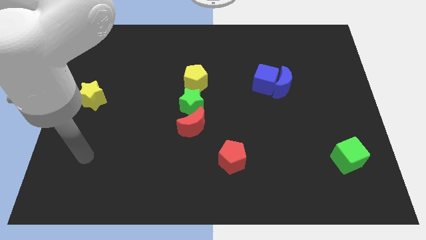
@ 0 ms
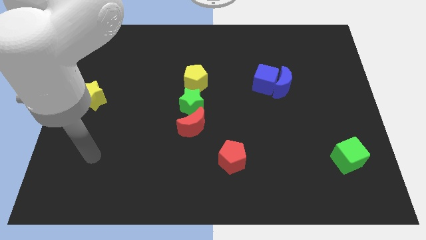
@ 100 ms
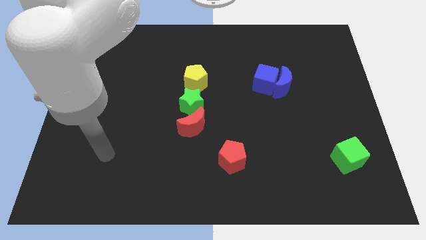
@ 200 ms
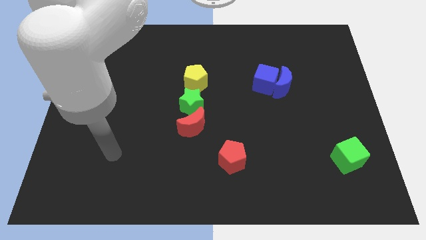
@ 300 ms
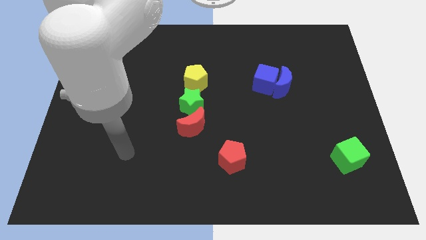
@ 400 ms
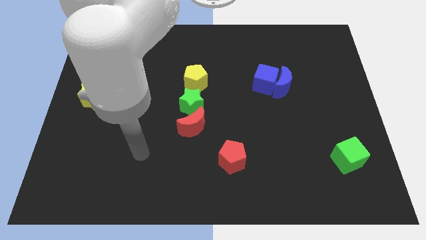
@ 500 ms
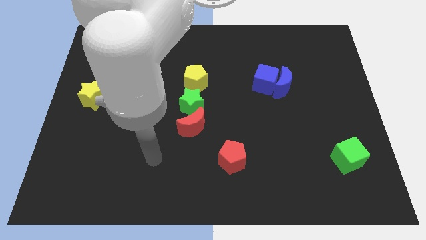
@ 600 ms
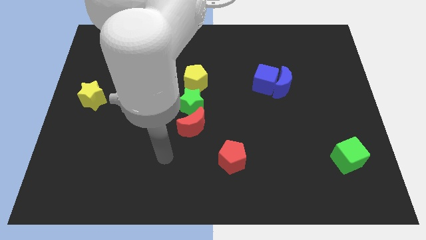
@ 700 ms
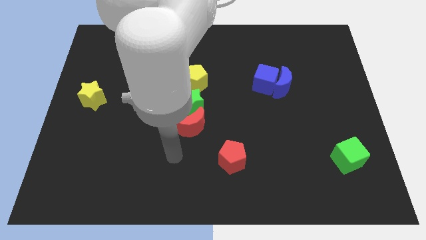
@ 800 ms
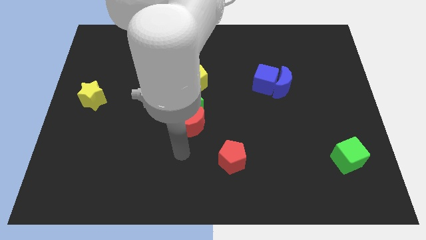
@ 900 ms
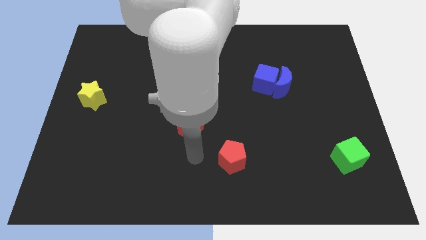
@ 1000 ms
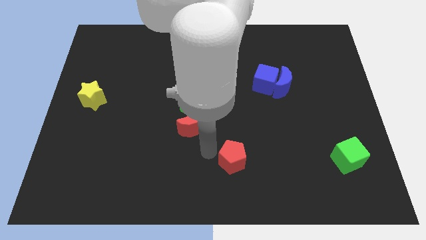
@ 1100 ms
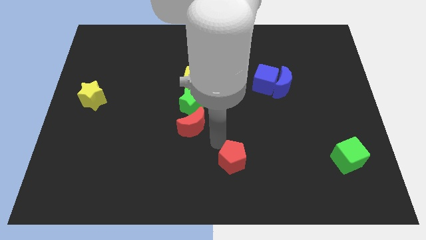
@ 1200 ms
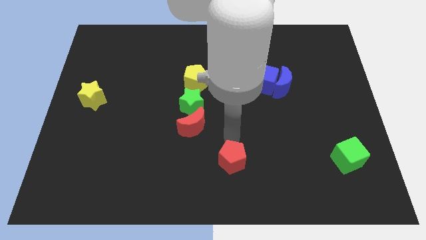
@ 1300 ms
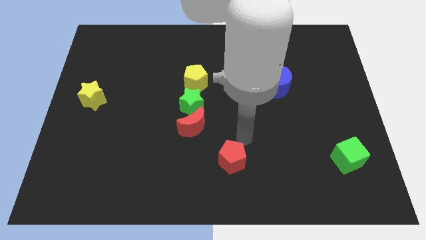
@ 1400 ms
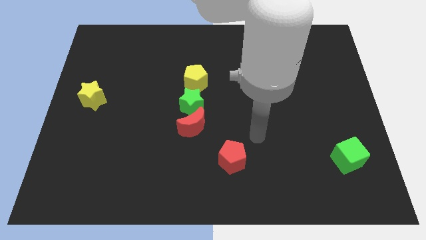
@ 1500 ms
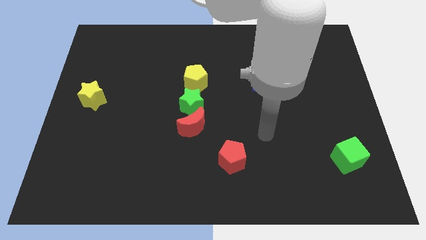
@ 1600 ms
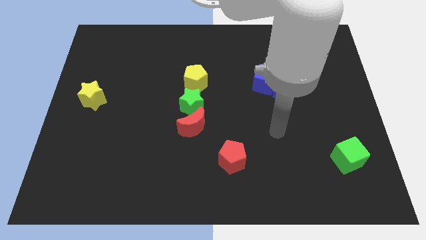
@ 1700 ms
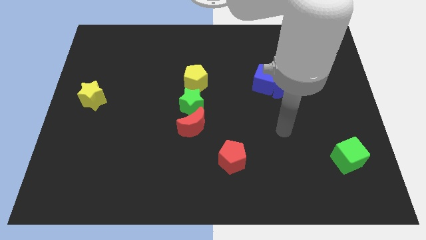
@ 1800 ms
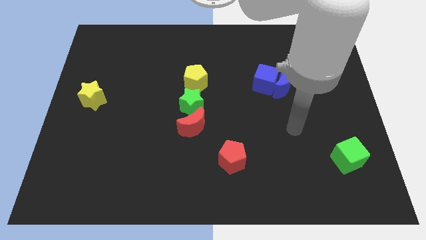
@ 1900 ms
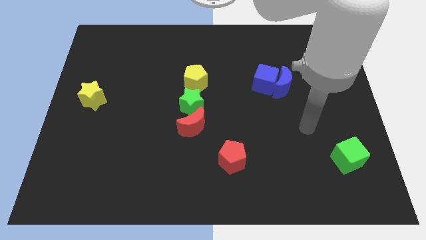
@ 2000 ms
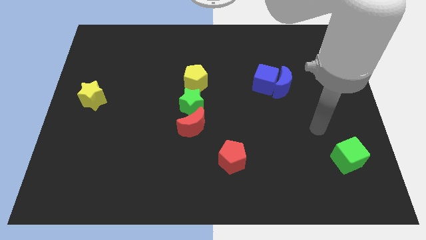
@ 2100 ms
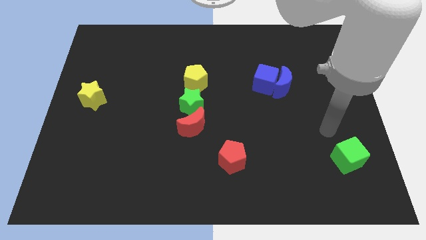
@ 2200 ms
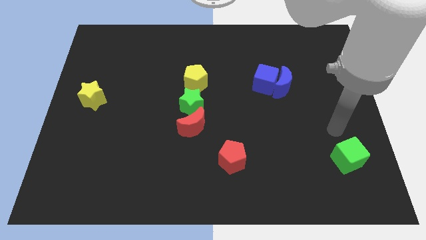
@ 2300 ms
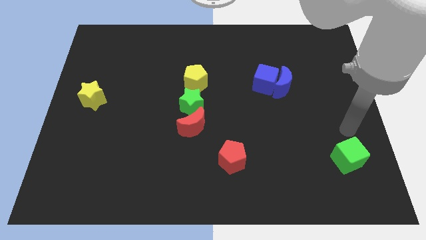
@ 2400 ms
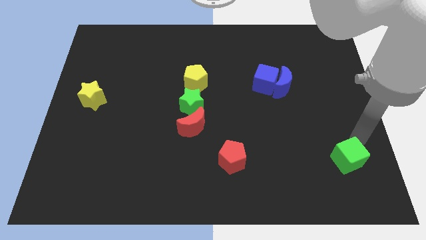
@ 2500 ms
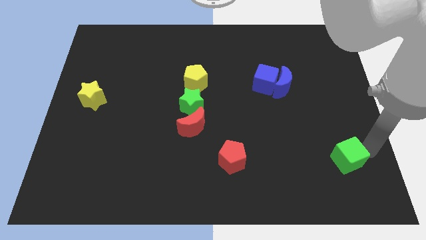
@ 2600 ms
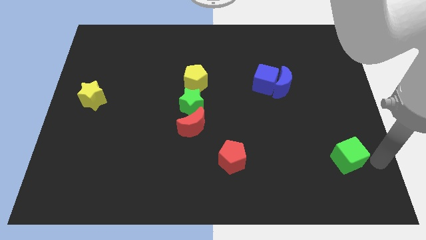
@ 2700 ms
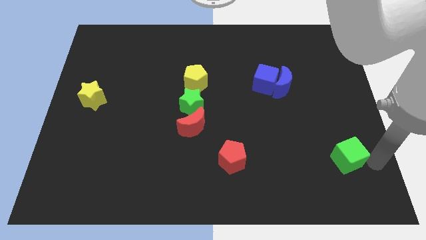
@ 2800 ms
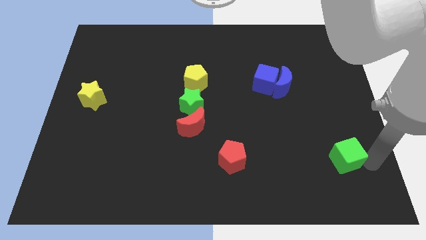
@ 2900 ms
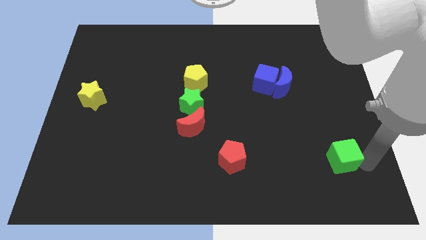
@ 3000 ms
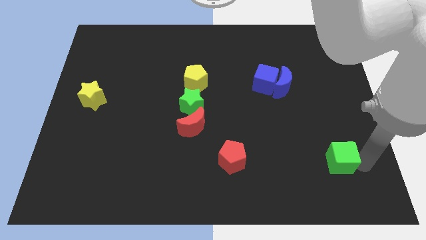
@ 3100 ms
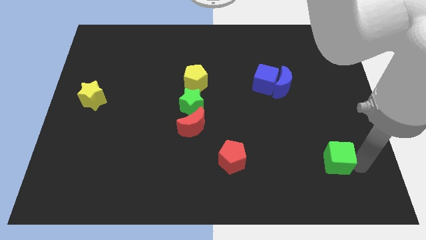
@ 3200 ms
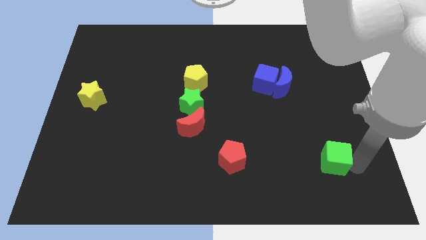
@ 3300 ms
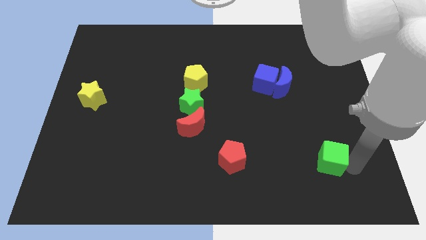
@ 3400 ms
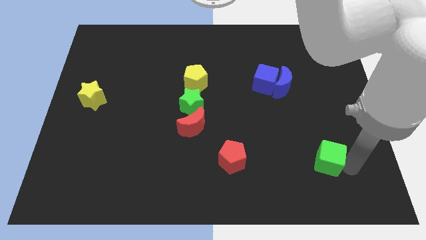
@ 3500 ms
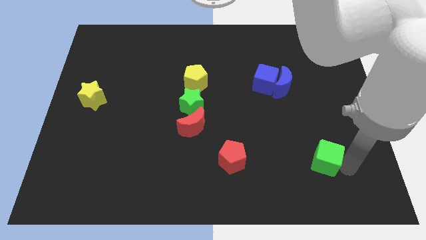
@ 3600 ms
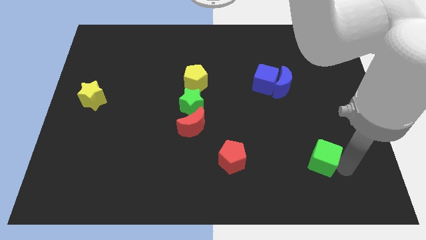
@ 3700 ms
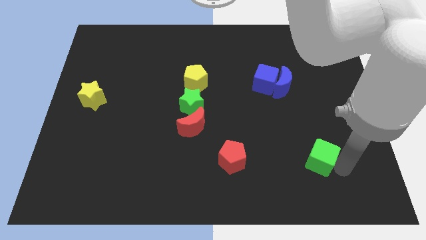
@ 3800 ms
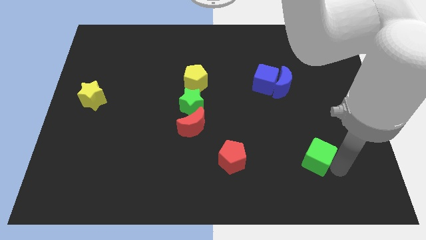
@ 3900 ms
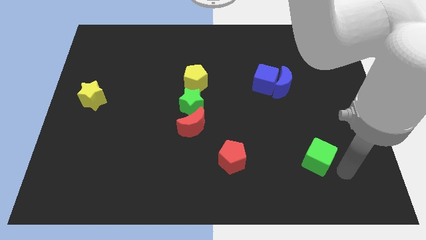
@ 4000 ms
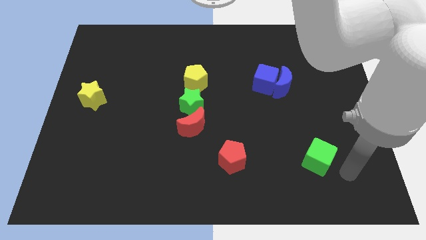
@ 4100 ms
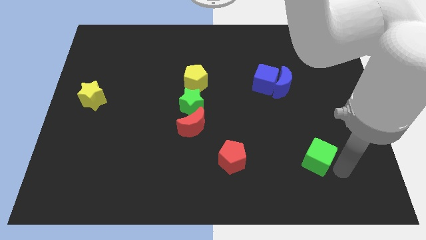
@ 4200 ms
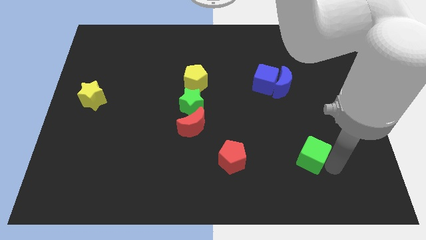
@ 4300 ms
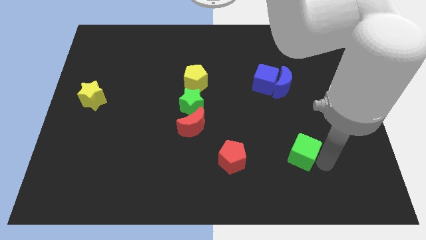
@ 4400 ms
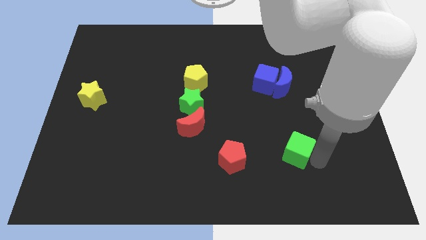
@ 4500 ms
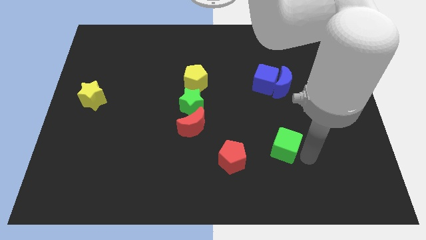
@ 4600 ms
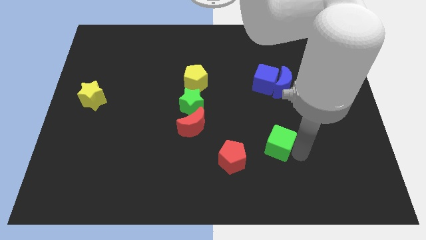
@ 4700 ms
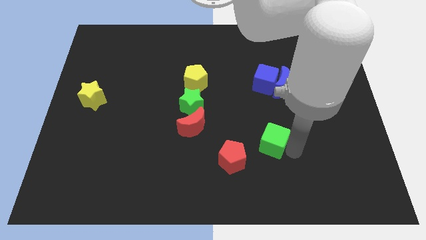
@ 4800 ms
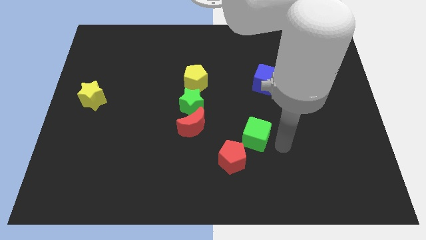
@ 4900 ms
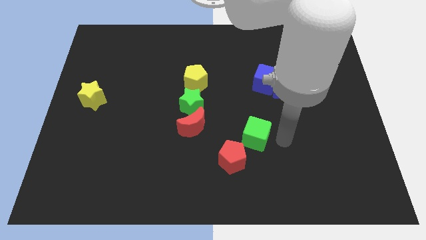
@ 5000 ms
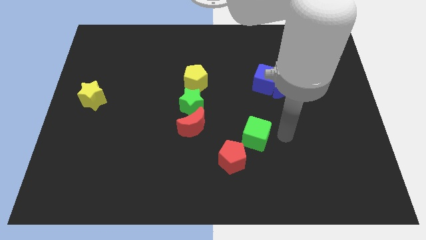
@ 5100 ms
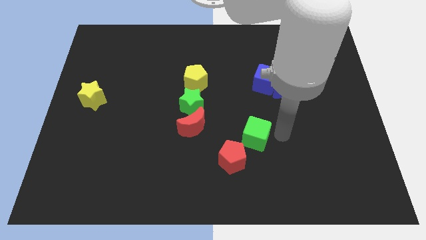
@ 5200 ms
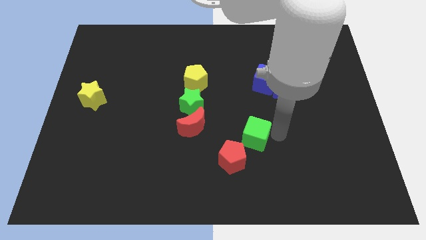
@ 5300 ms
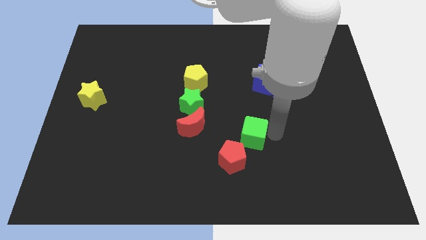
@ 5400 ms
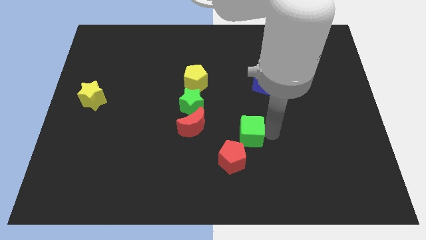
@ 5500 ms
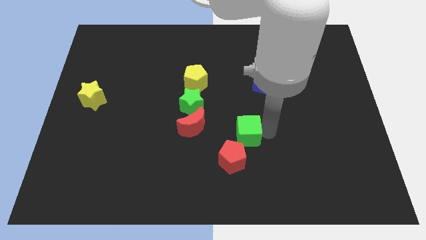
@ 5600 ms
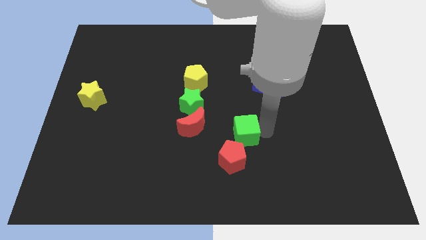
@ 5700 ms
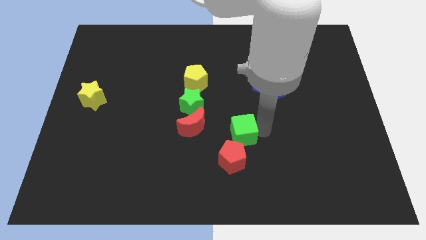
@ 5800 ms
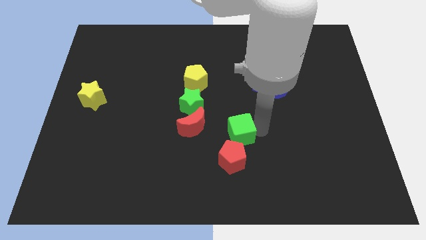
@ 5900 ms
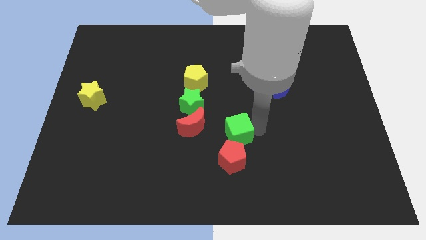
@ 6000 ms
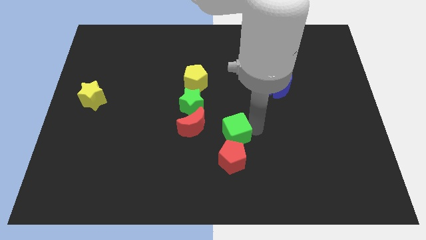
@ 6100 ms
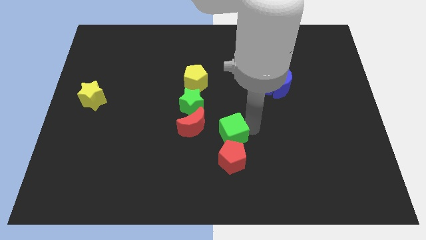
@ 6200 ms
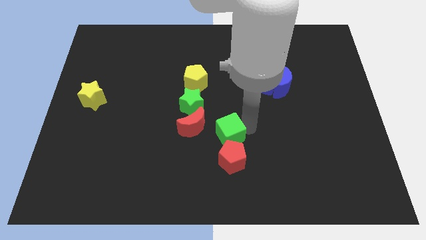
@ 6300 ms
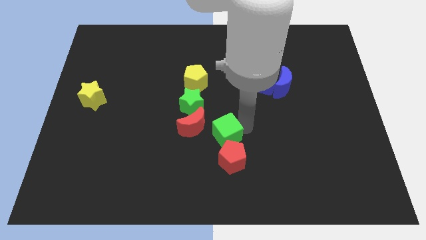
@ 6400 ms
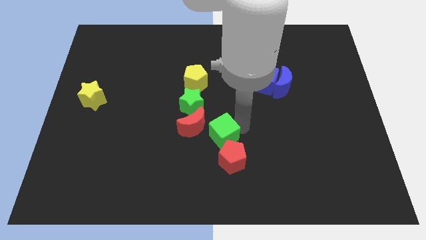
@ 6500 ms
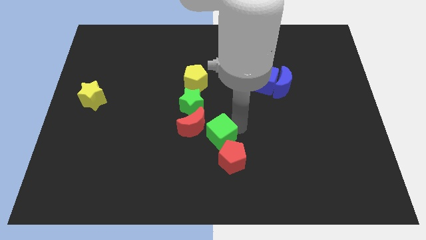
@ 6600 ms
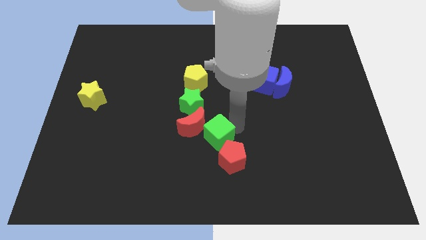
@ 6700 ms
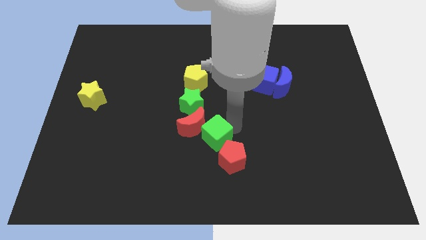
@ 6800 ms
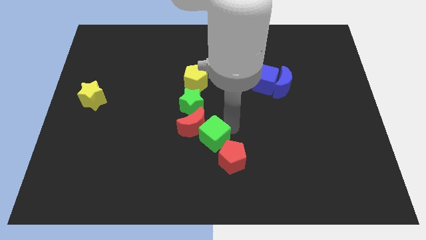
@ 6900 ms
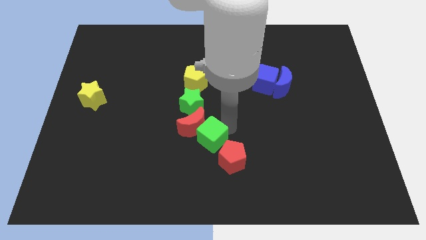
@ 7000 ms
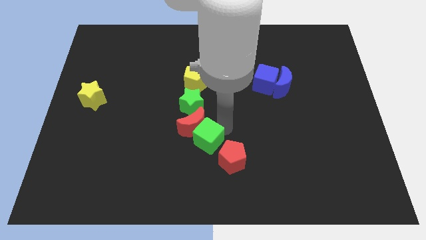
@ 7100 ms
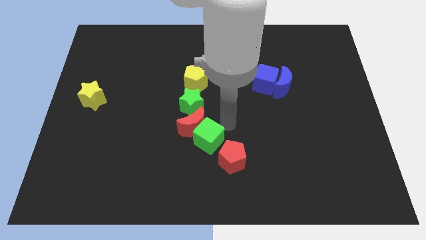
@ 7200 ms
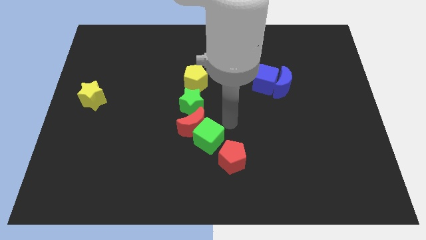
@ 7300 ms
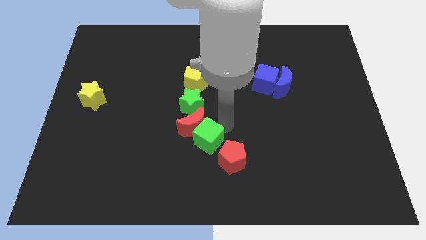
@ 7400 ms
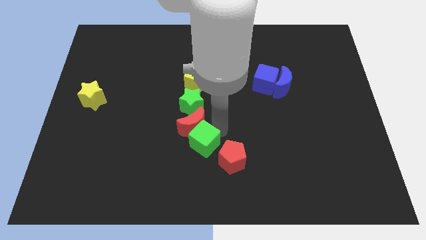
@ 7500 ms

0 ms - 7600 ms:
slide the green cube to the left side of the red pentagon
